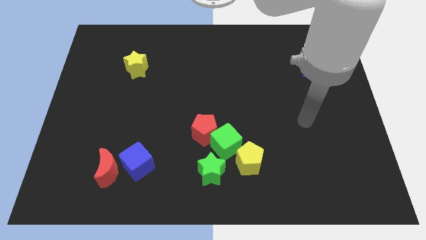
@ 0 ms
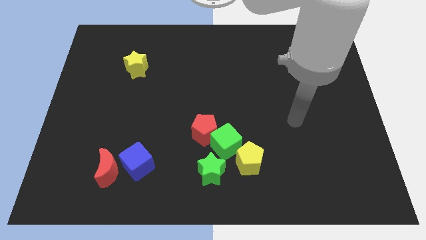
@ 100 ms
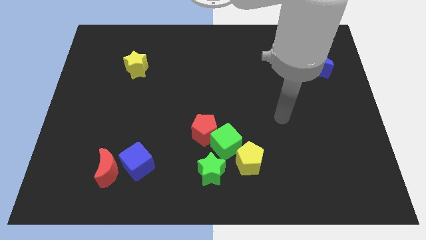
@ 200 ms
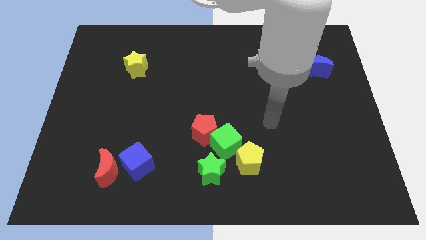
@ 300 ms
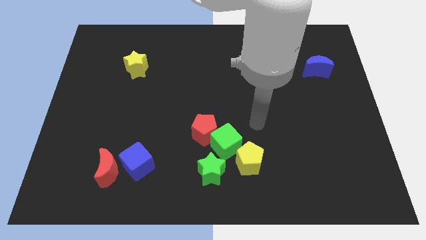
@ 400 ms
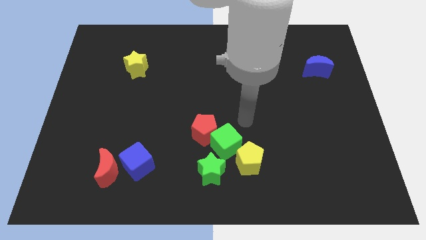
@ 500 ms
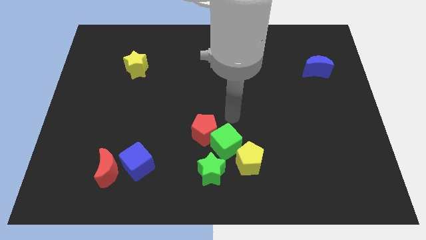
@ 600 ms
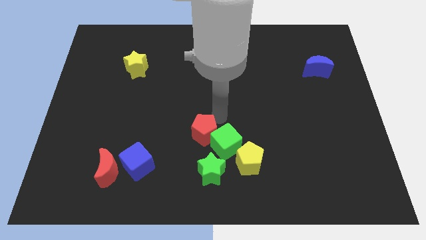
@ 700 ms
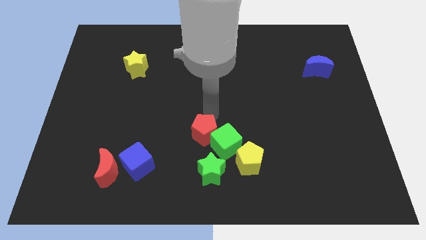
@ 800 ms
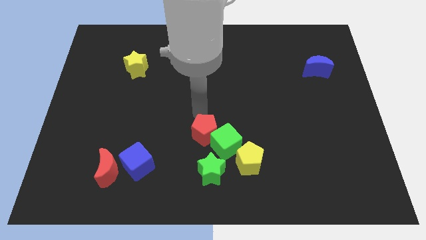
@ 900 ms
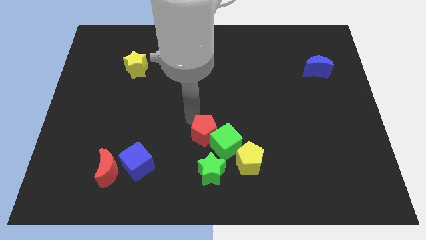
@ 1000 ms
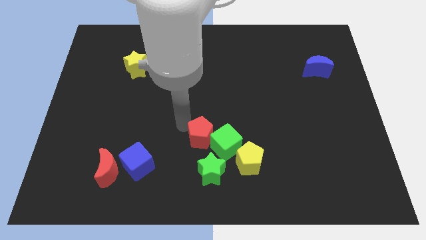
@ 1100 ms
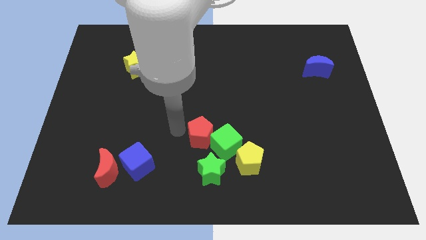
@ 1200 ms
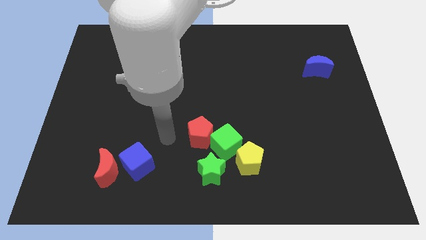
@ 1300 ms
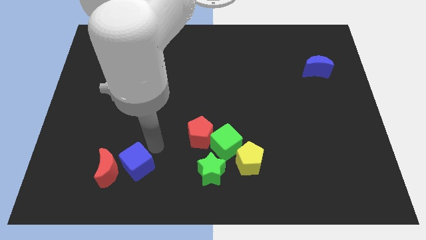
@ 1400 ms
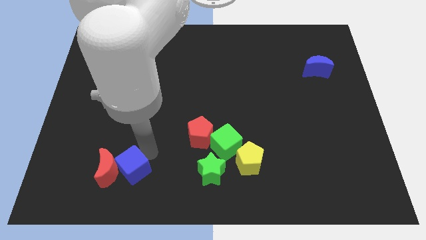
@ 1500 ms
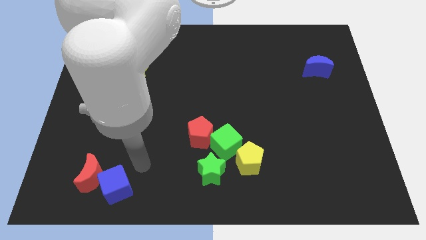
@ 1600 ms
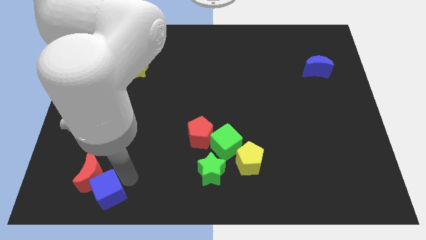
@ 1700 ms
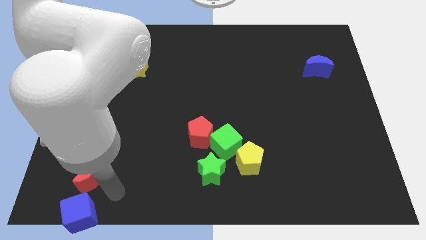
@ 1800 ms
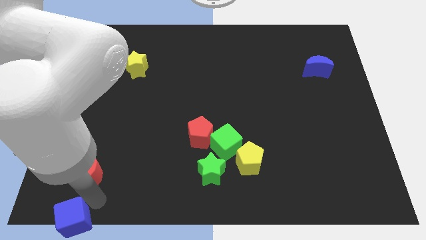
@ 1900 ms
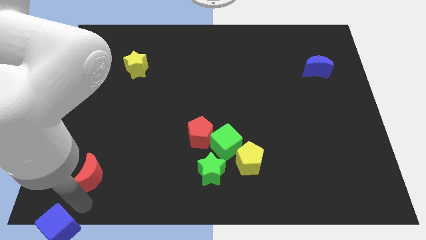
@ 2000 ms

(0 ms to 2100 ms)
move the red moon away from the blue cube

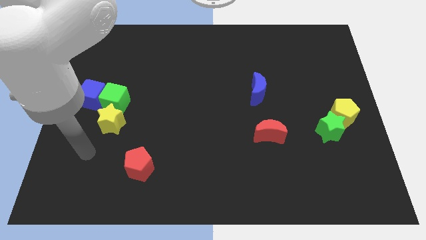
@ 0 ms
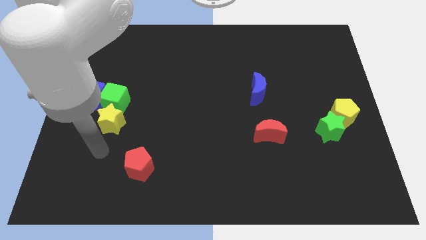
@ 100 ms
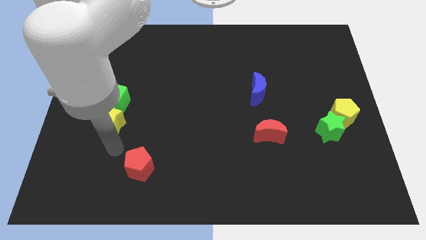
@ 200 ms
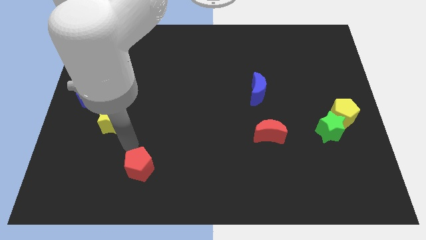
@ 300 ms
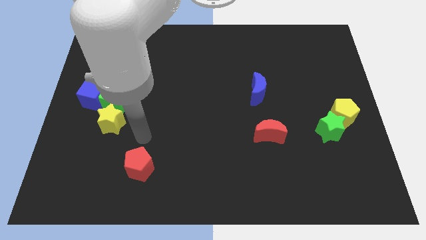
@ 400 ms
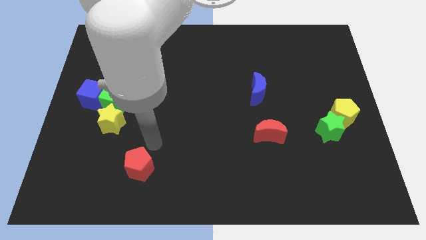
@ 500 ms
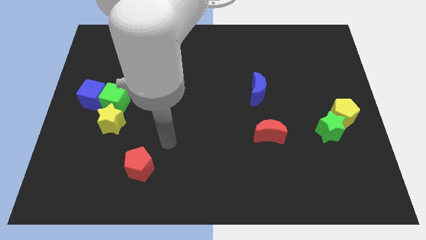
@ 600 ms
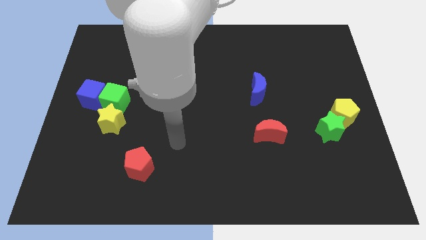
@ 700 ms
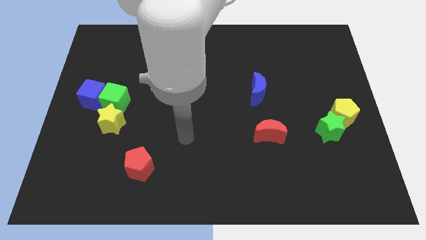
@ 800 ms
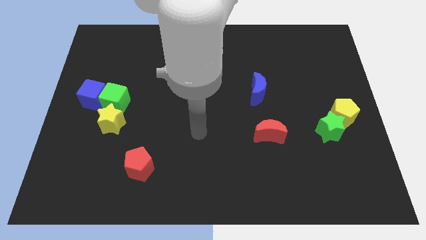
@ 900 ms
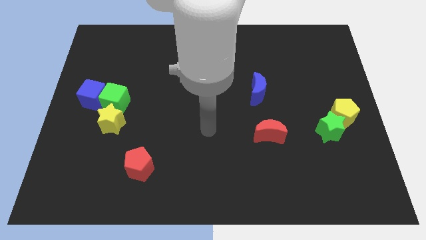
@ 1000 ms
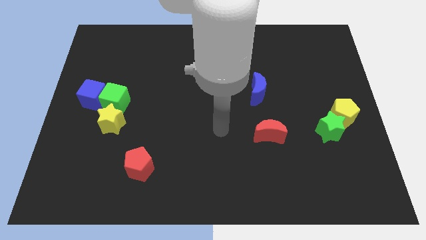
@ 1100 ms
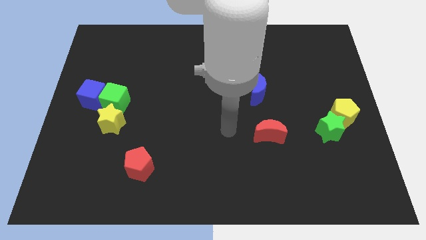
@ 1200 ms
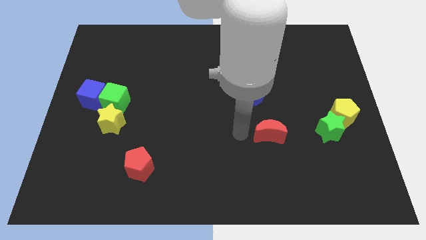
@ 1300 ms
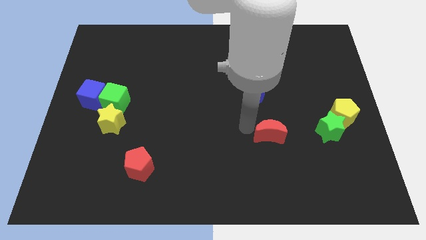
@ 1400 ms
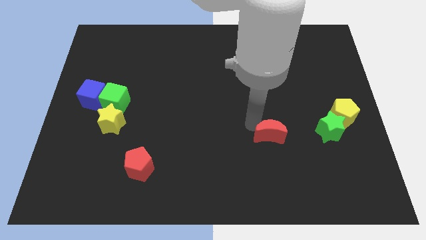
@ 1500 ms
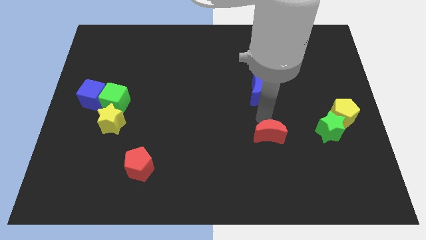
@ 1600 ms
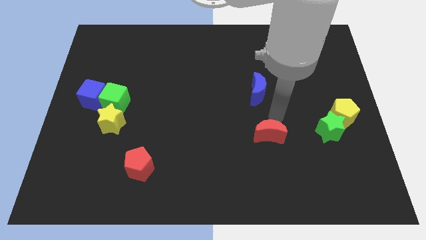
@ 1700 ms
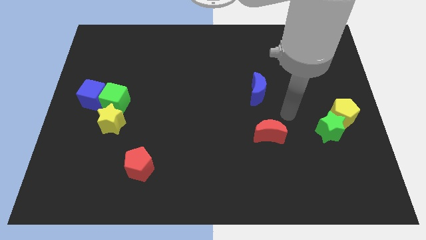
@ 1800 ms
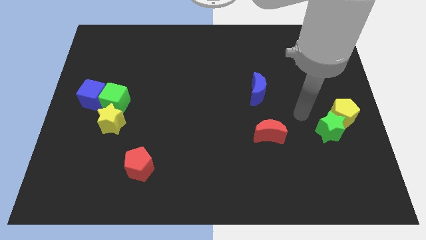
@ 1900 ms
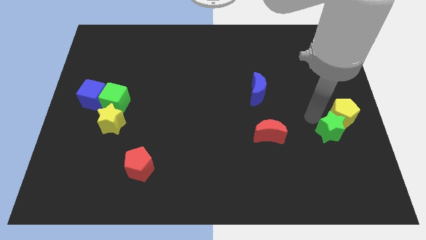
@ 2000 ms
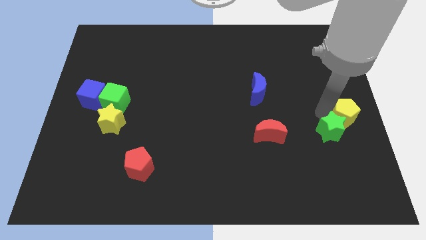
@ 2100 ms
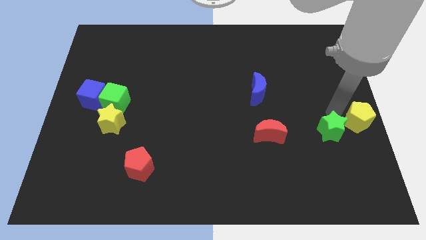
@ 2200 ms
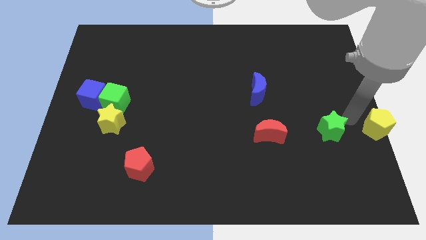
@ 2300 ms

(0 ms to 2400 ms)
separate the green star from the yellow pentagon

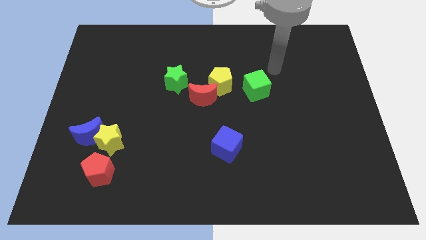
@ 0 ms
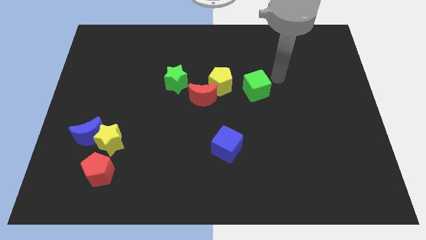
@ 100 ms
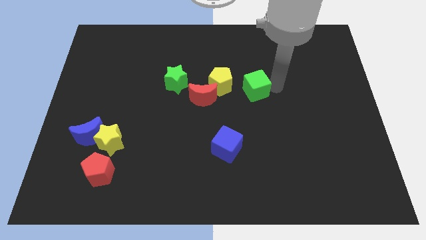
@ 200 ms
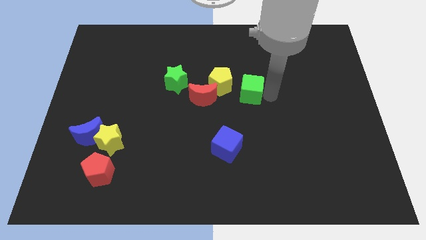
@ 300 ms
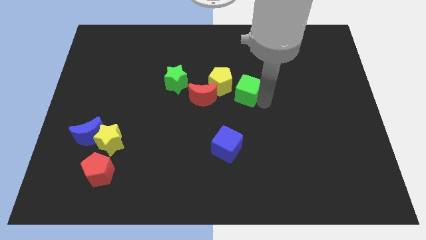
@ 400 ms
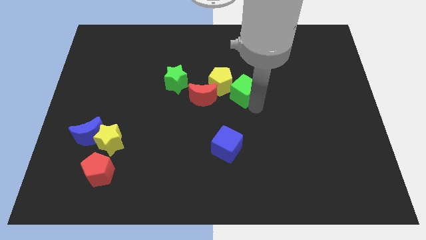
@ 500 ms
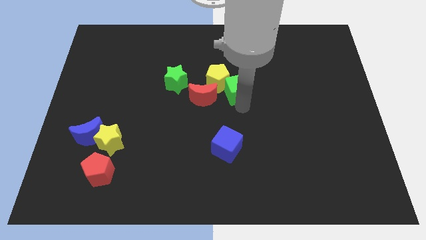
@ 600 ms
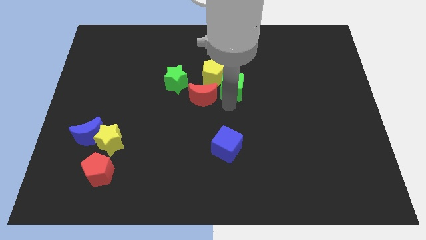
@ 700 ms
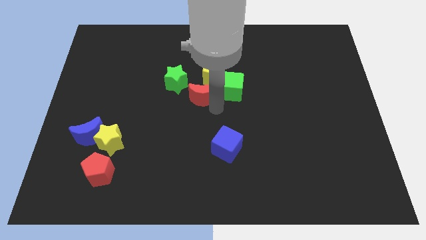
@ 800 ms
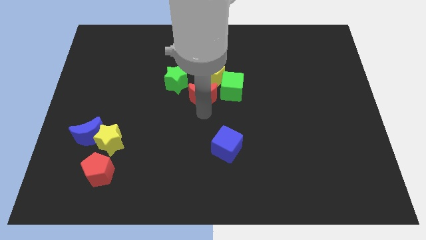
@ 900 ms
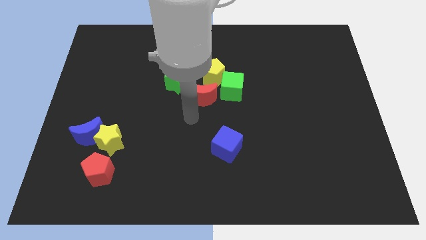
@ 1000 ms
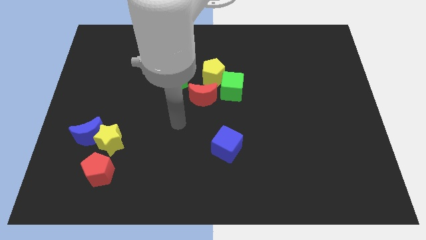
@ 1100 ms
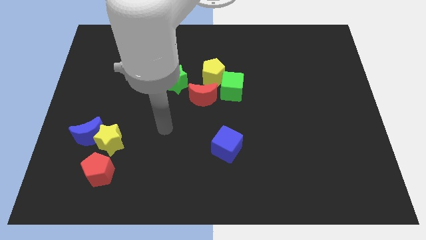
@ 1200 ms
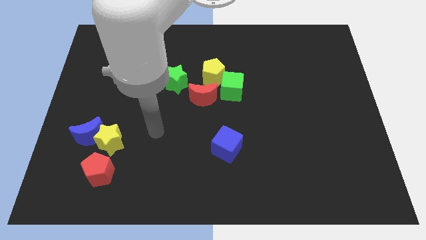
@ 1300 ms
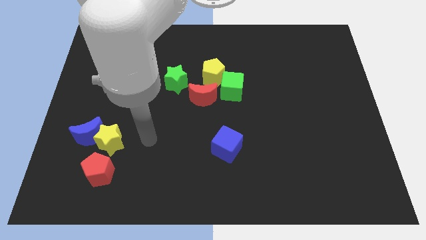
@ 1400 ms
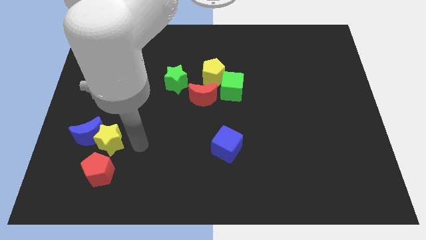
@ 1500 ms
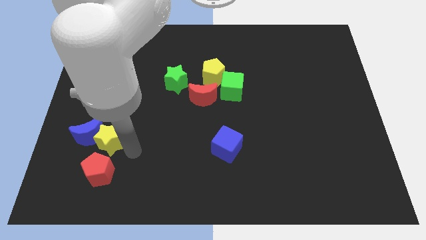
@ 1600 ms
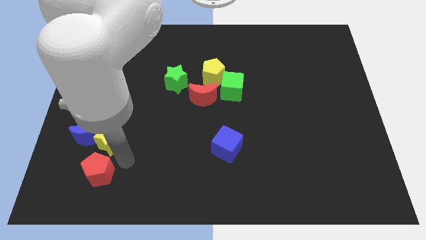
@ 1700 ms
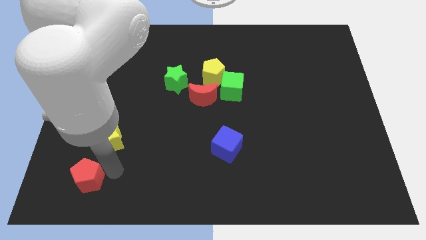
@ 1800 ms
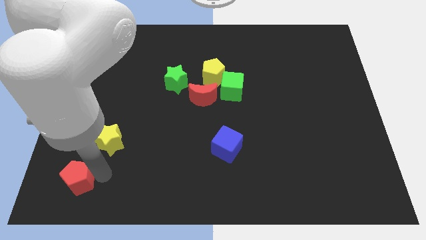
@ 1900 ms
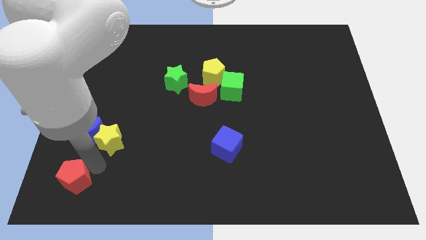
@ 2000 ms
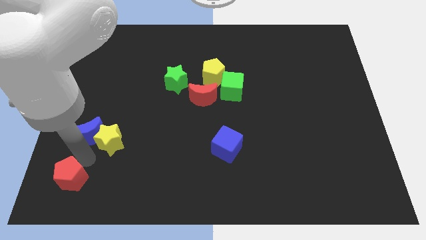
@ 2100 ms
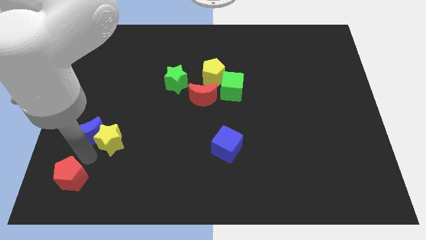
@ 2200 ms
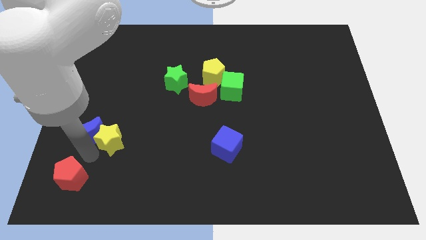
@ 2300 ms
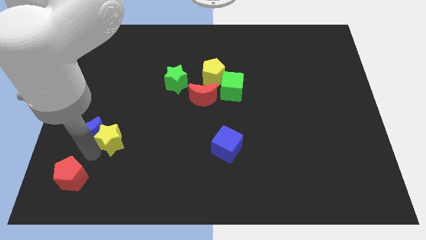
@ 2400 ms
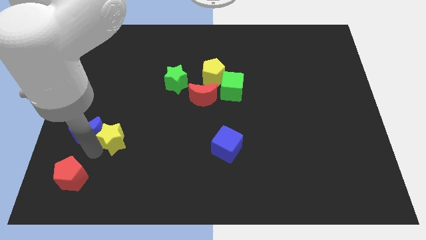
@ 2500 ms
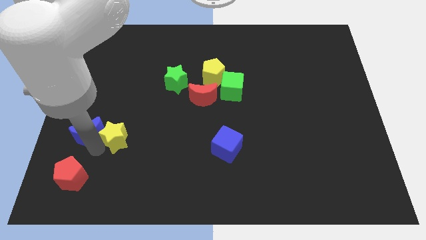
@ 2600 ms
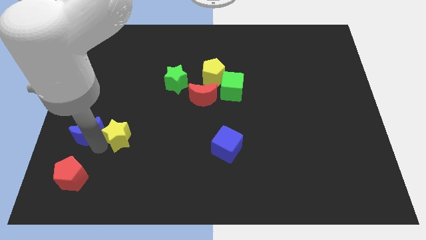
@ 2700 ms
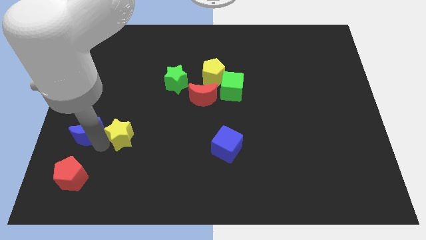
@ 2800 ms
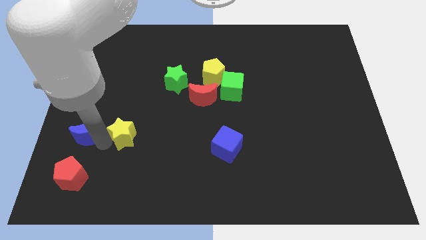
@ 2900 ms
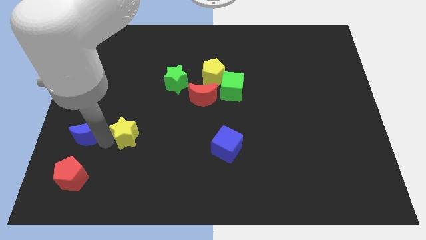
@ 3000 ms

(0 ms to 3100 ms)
move the yellow star away from the blue moon and red pentagon

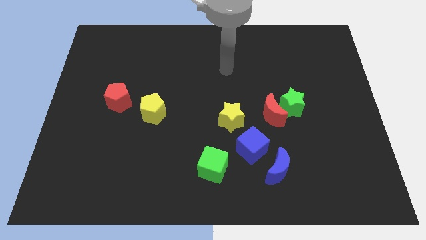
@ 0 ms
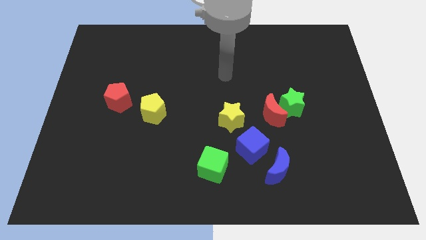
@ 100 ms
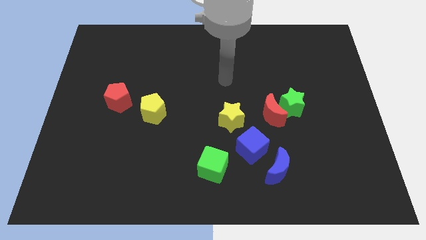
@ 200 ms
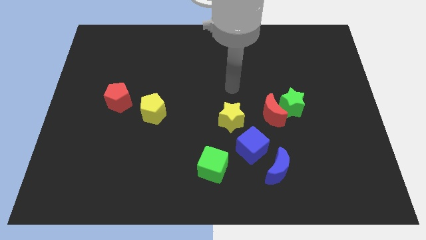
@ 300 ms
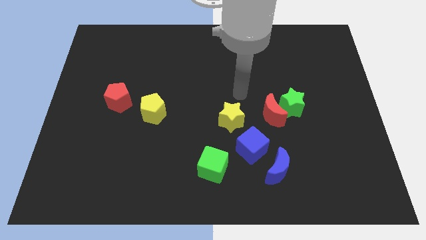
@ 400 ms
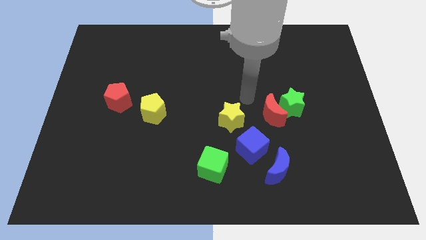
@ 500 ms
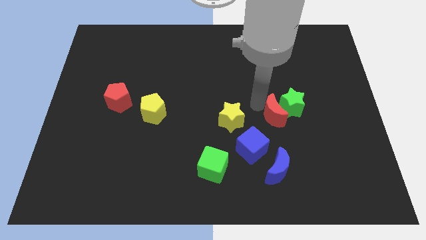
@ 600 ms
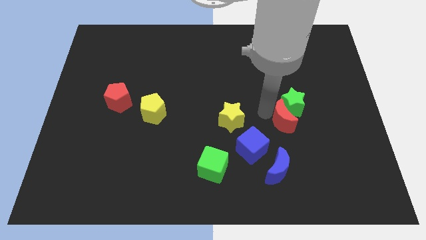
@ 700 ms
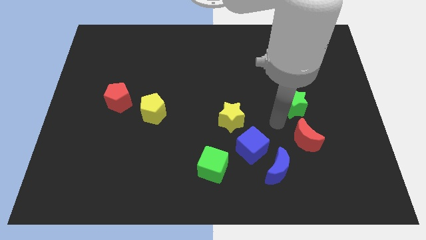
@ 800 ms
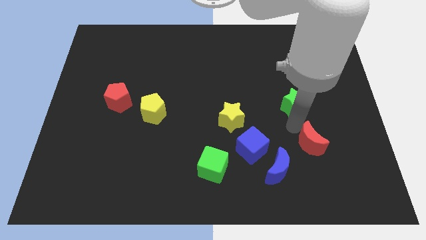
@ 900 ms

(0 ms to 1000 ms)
separate the green star from the red moon

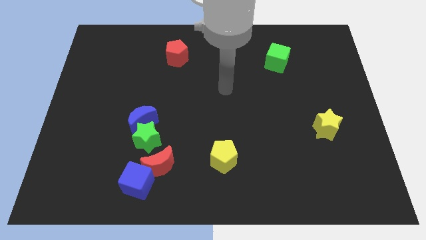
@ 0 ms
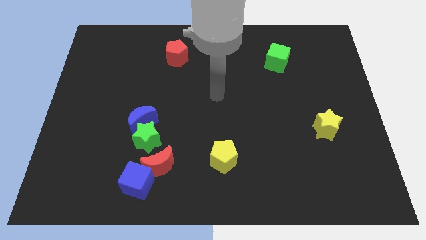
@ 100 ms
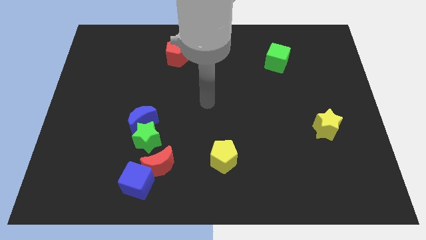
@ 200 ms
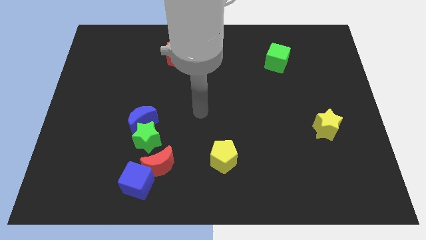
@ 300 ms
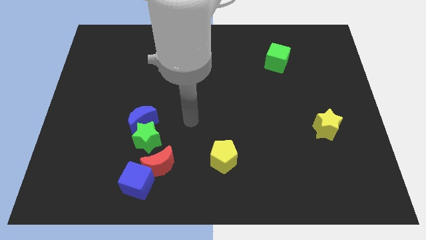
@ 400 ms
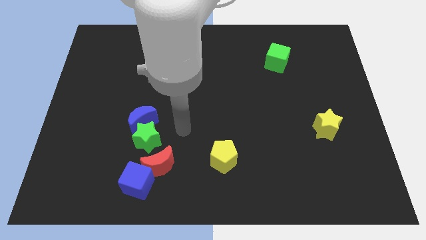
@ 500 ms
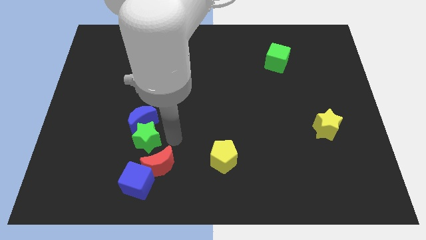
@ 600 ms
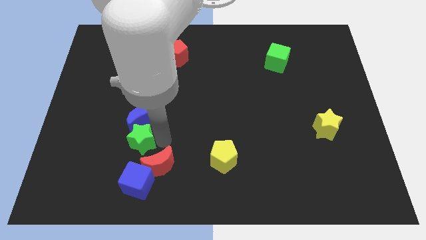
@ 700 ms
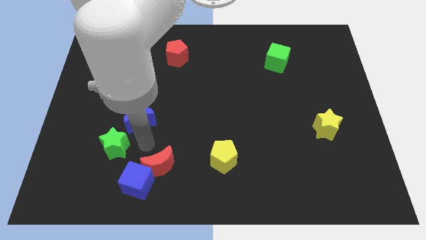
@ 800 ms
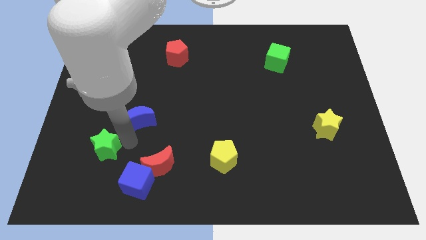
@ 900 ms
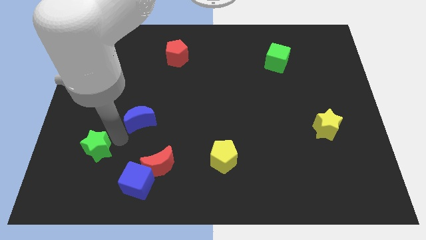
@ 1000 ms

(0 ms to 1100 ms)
pull the blue moon apart from the green star
